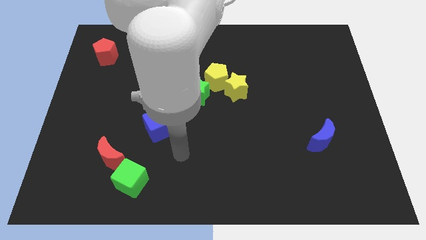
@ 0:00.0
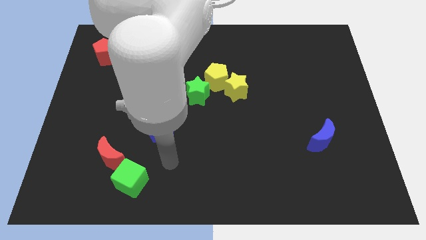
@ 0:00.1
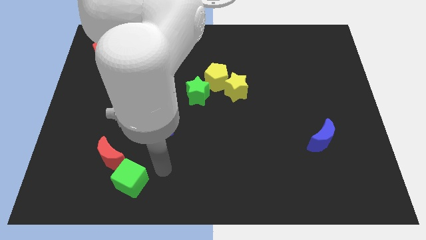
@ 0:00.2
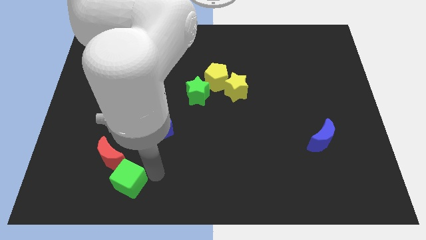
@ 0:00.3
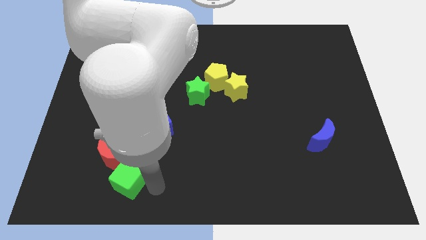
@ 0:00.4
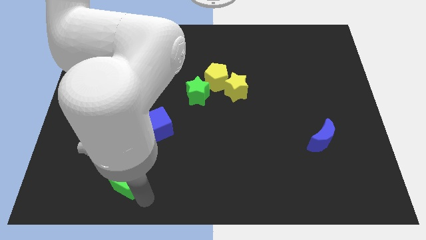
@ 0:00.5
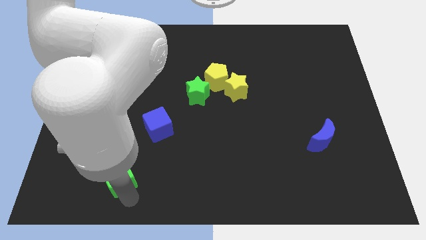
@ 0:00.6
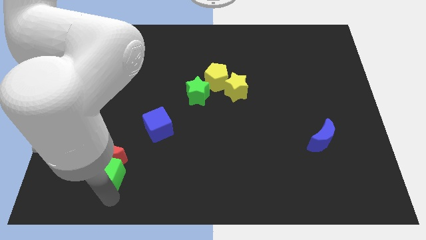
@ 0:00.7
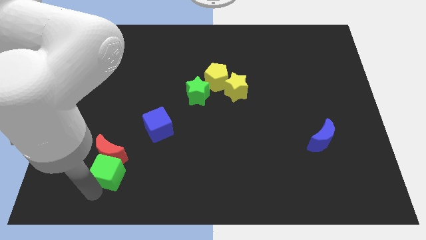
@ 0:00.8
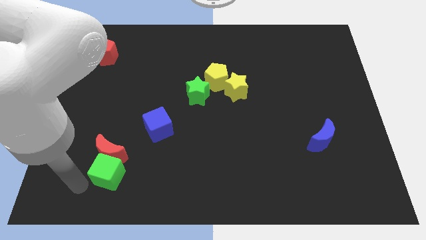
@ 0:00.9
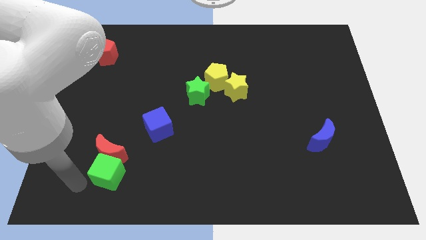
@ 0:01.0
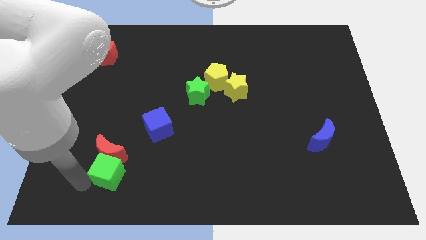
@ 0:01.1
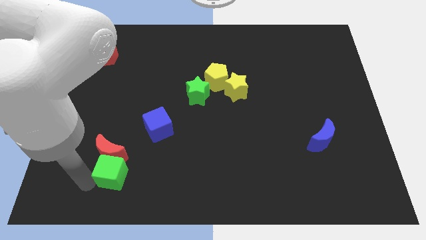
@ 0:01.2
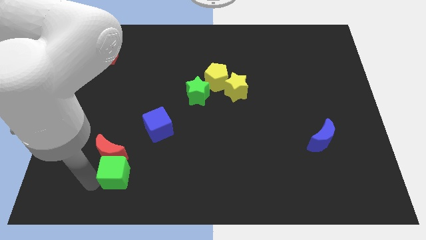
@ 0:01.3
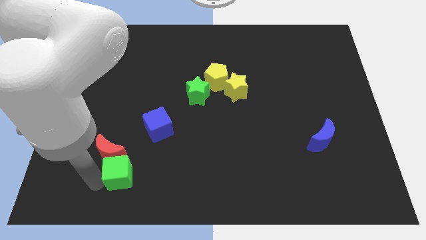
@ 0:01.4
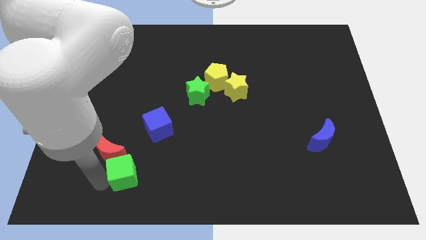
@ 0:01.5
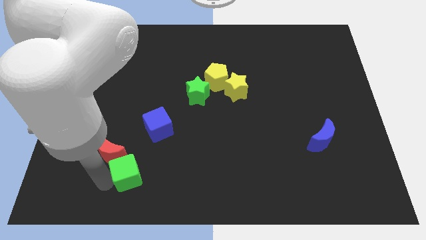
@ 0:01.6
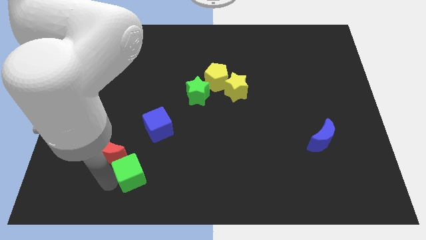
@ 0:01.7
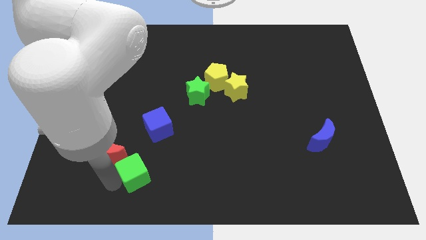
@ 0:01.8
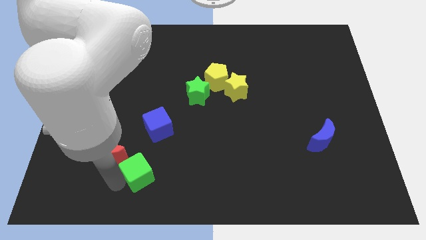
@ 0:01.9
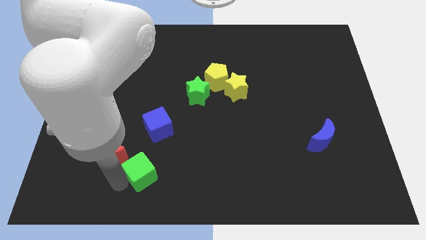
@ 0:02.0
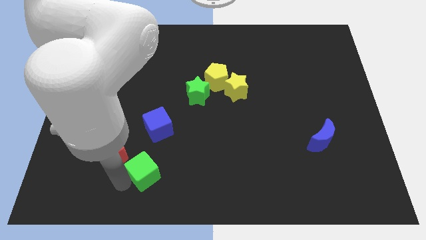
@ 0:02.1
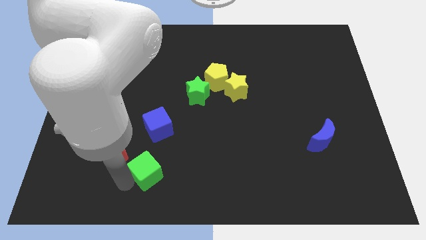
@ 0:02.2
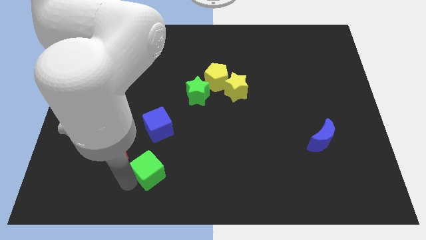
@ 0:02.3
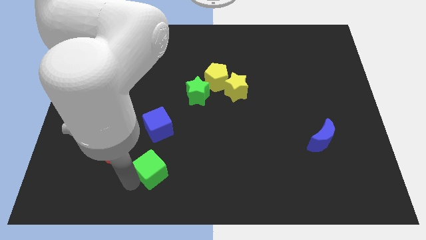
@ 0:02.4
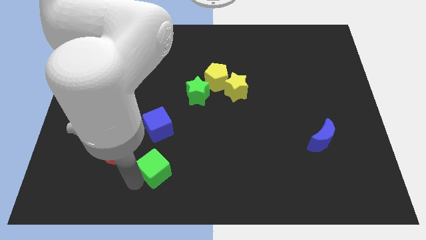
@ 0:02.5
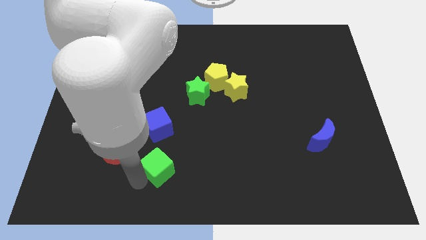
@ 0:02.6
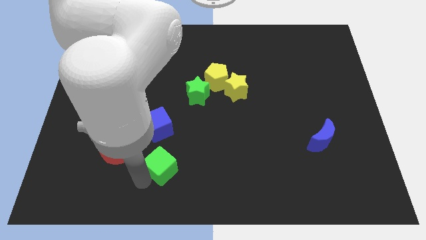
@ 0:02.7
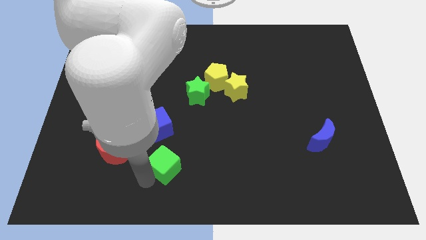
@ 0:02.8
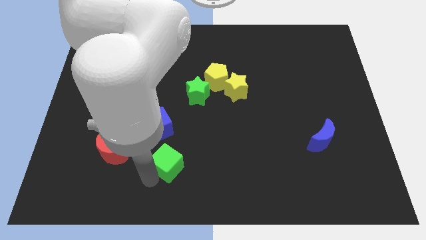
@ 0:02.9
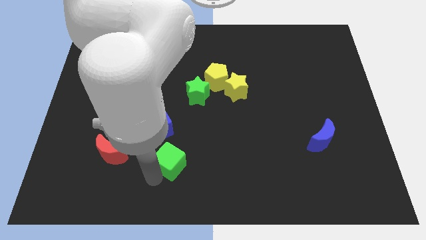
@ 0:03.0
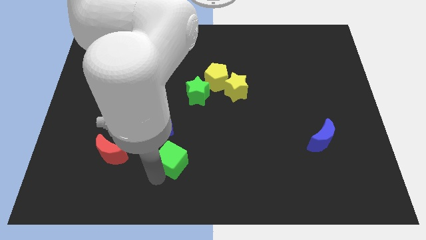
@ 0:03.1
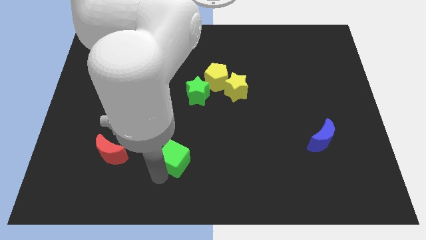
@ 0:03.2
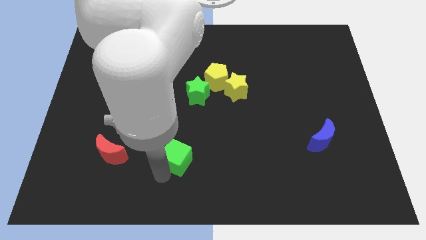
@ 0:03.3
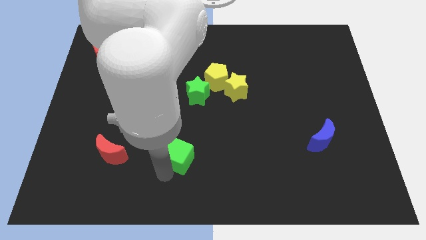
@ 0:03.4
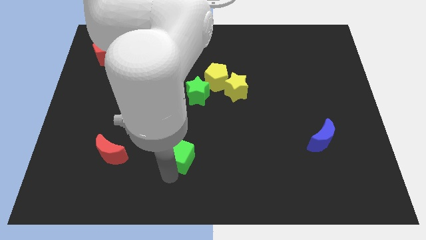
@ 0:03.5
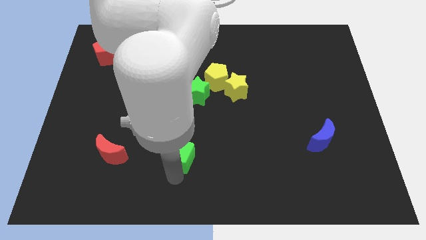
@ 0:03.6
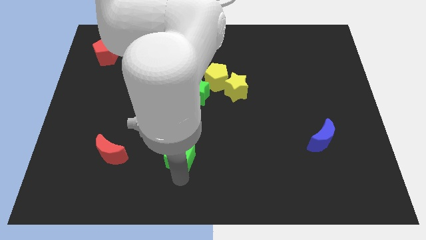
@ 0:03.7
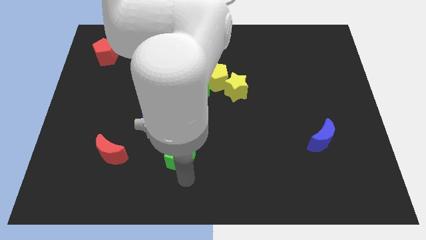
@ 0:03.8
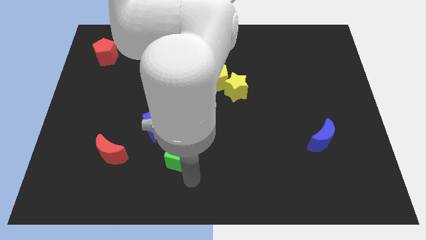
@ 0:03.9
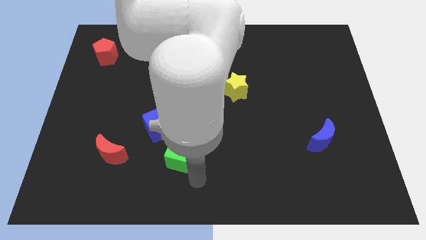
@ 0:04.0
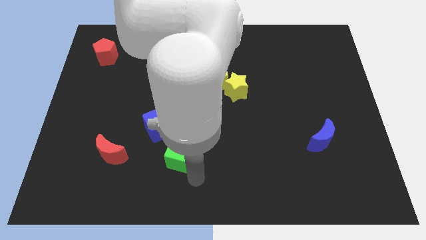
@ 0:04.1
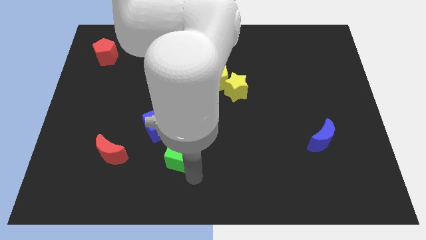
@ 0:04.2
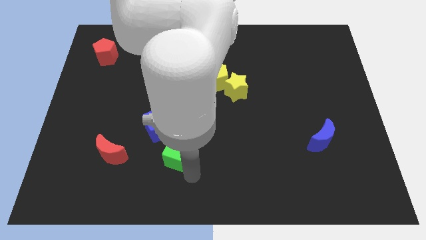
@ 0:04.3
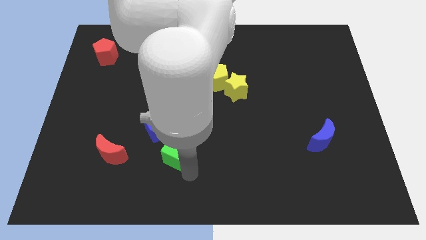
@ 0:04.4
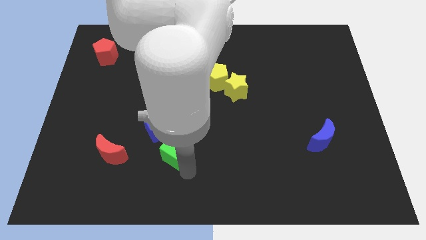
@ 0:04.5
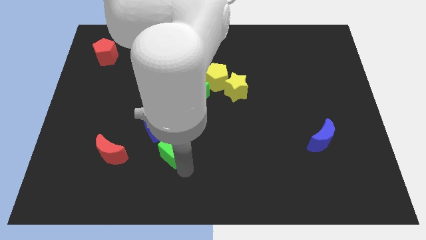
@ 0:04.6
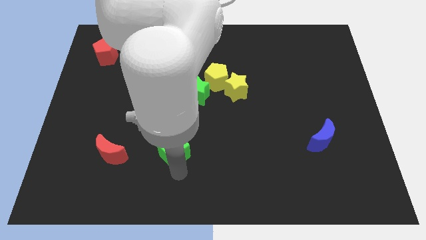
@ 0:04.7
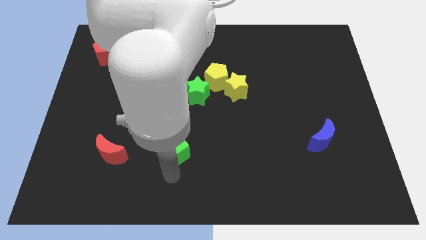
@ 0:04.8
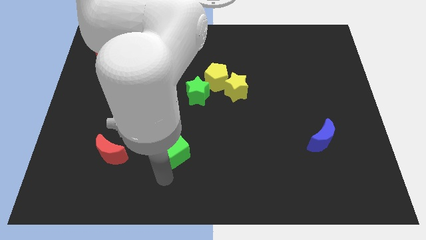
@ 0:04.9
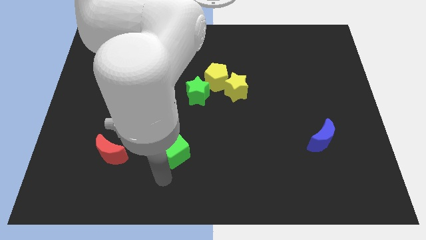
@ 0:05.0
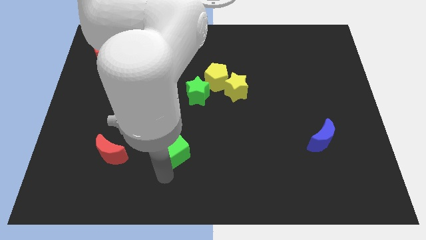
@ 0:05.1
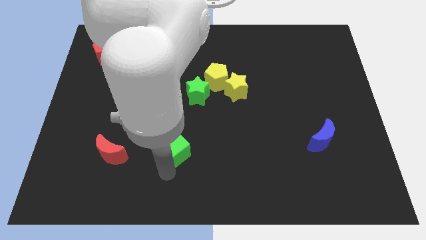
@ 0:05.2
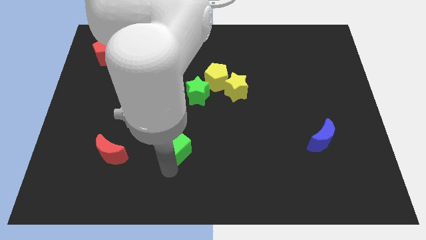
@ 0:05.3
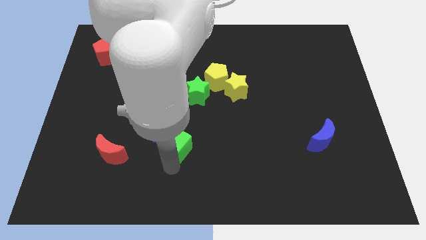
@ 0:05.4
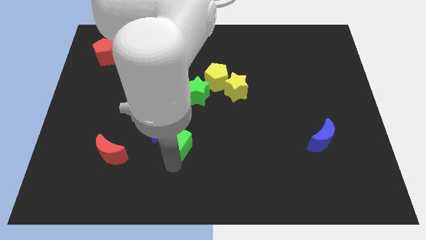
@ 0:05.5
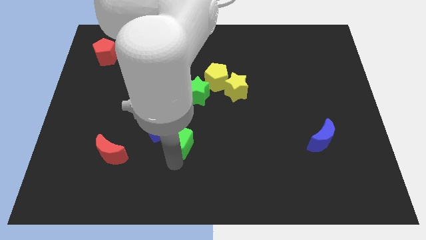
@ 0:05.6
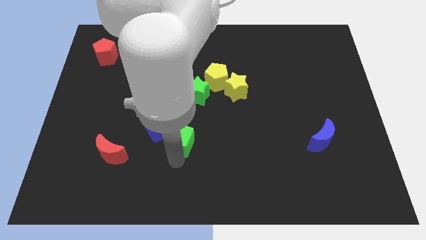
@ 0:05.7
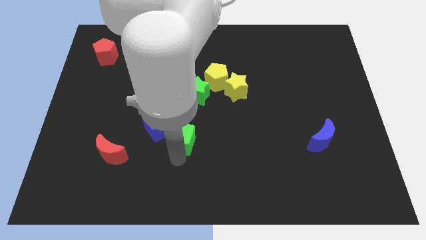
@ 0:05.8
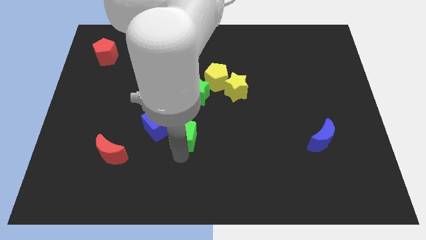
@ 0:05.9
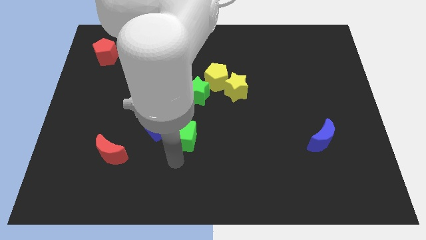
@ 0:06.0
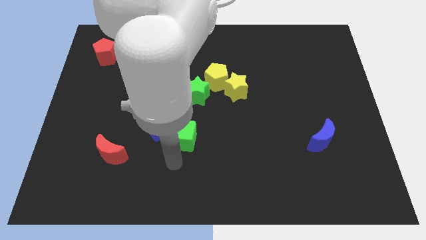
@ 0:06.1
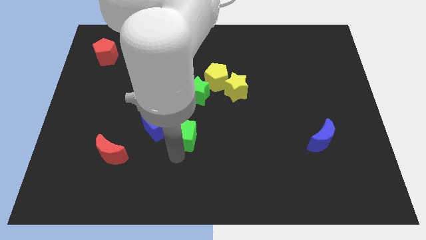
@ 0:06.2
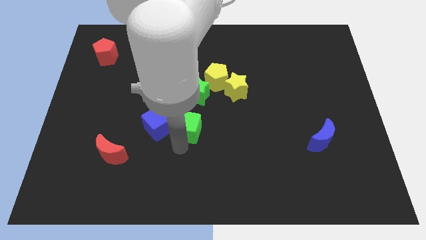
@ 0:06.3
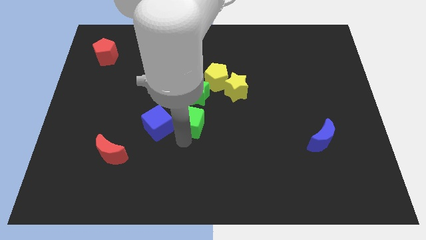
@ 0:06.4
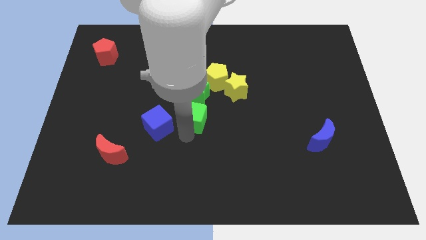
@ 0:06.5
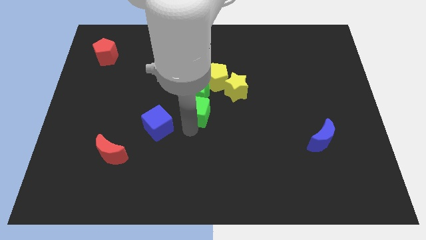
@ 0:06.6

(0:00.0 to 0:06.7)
push the green cube towards the green star

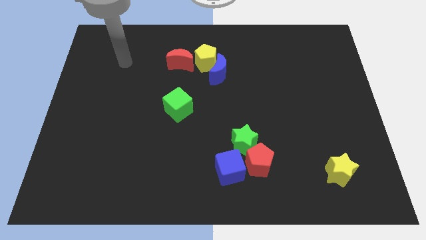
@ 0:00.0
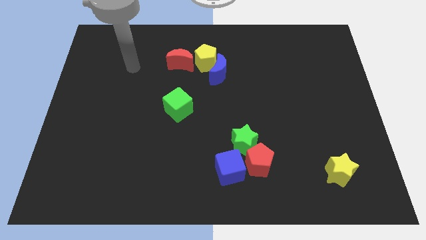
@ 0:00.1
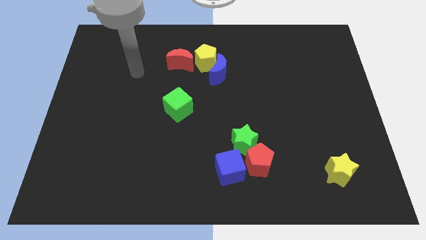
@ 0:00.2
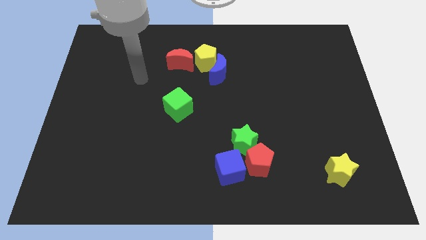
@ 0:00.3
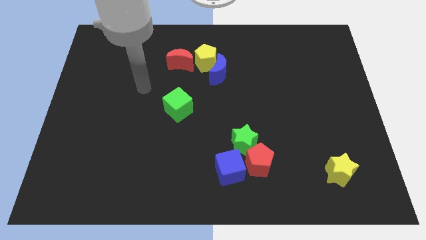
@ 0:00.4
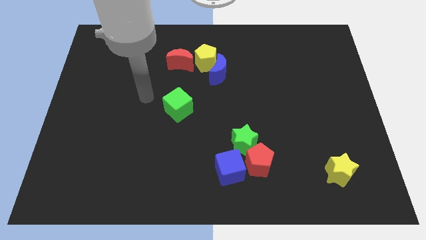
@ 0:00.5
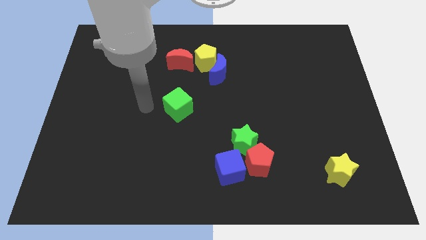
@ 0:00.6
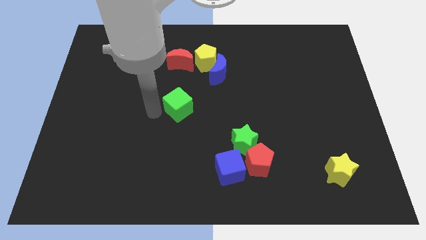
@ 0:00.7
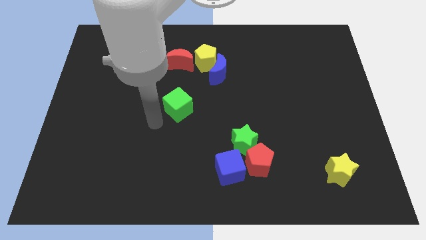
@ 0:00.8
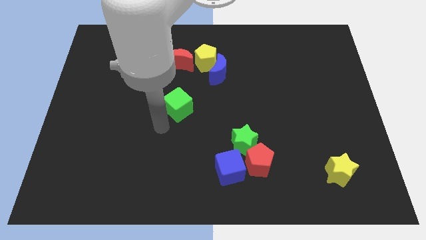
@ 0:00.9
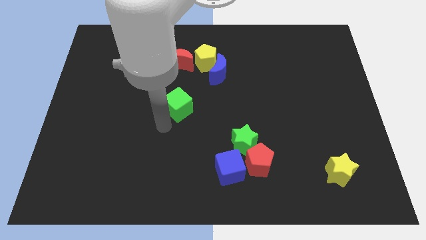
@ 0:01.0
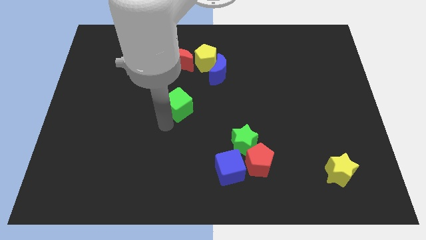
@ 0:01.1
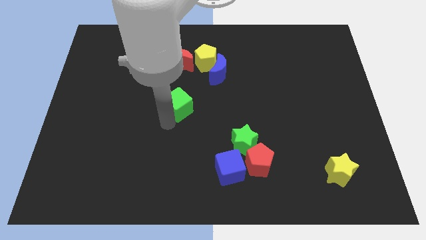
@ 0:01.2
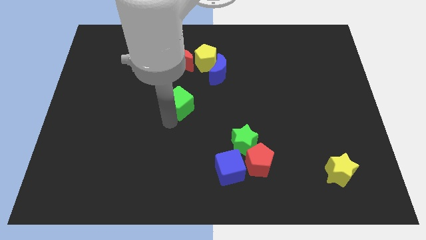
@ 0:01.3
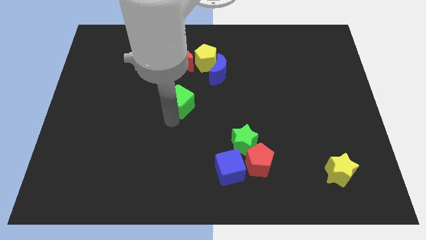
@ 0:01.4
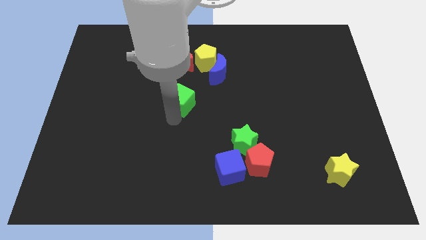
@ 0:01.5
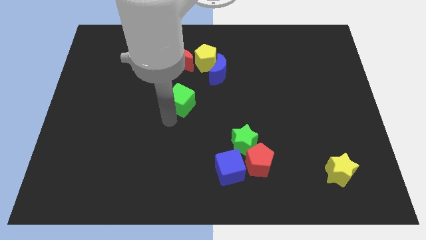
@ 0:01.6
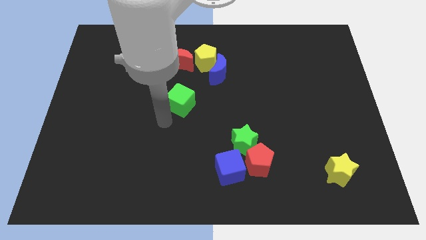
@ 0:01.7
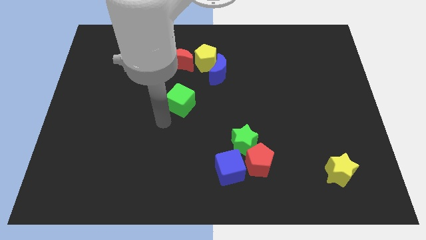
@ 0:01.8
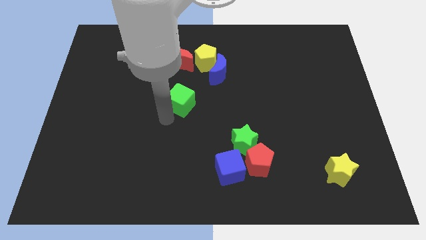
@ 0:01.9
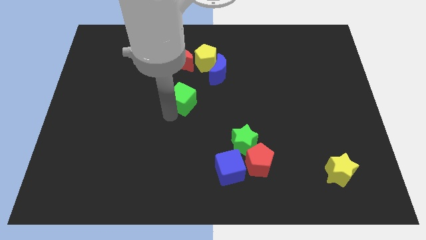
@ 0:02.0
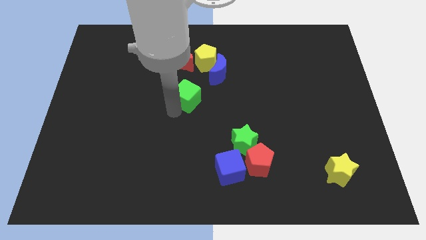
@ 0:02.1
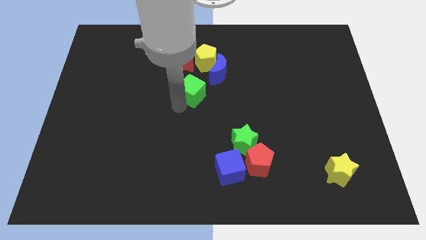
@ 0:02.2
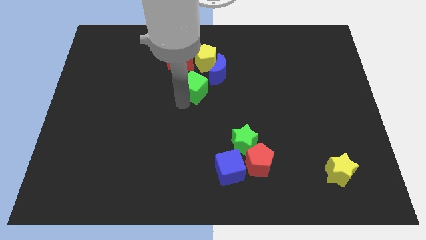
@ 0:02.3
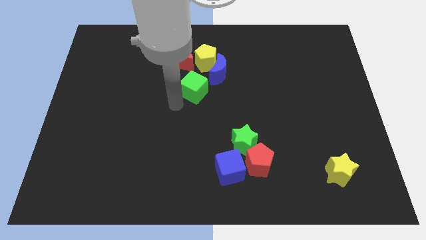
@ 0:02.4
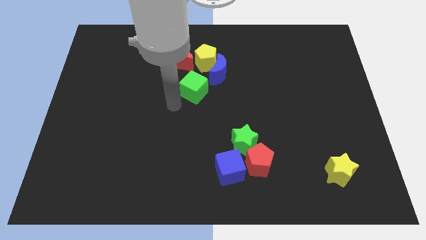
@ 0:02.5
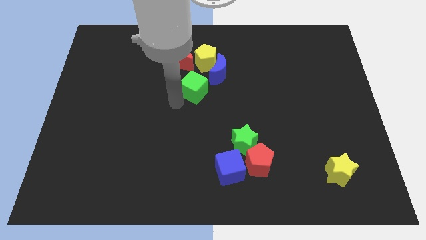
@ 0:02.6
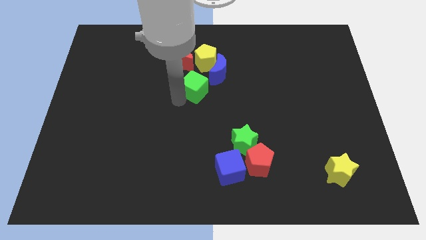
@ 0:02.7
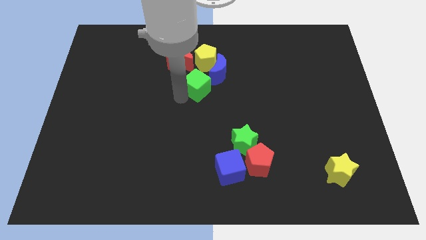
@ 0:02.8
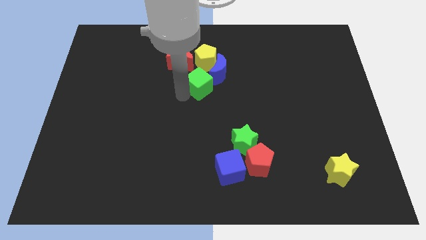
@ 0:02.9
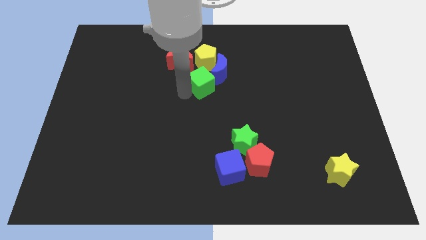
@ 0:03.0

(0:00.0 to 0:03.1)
put the green cube next to the blue moon
